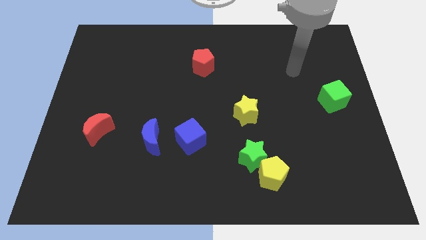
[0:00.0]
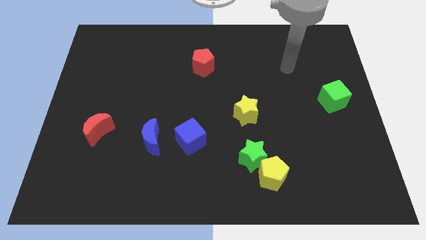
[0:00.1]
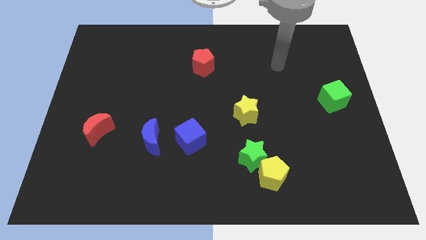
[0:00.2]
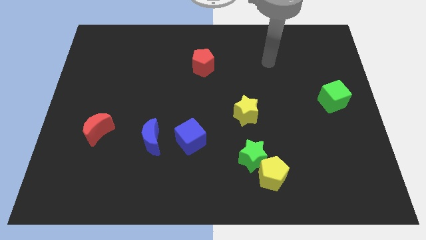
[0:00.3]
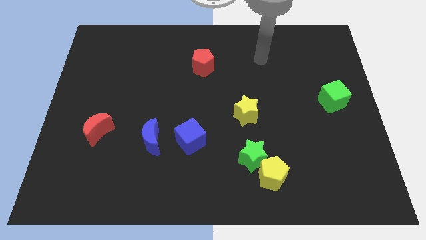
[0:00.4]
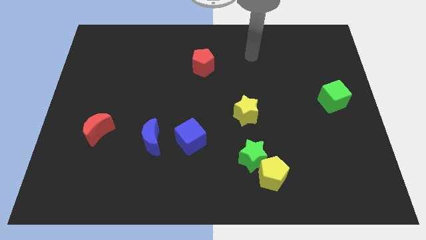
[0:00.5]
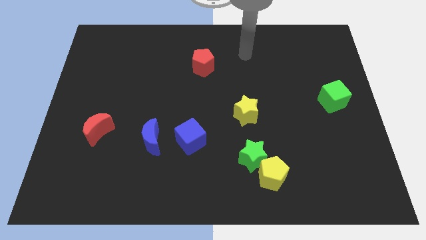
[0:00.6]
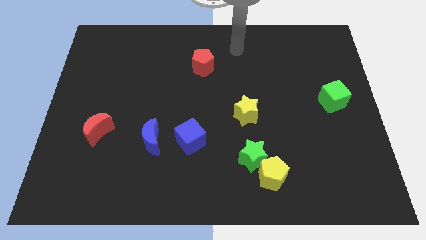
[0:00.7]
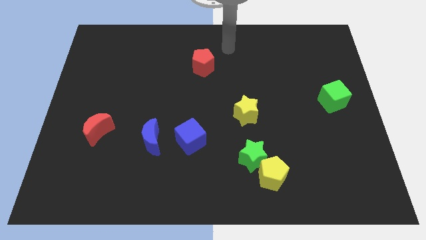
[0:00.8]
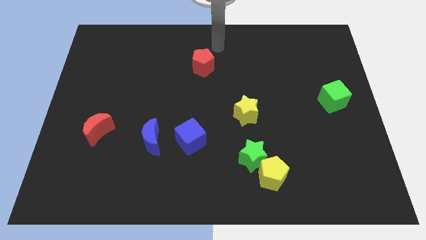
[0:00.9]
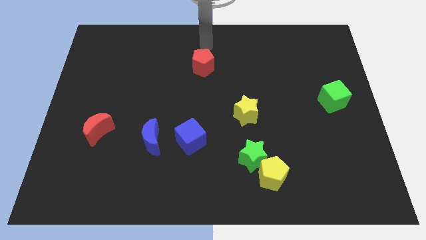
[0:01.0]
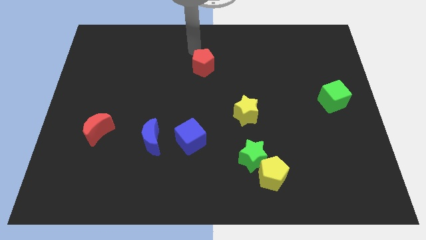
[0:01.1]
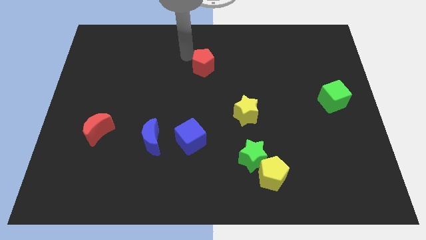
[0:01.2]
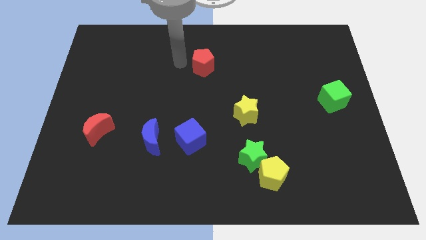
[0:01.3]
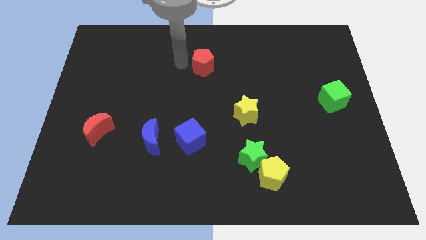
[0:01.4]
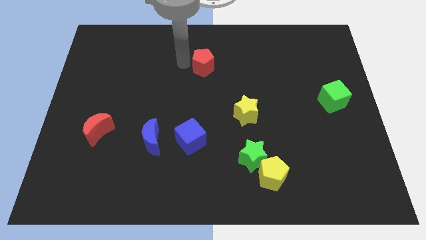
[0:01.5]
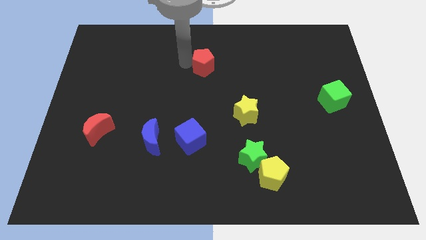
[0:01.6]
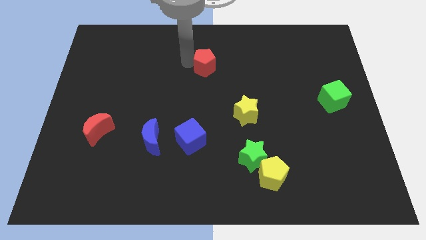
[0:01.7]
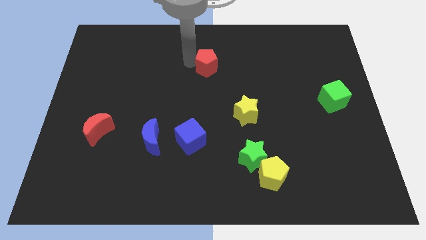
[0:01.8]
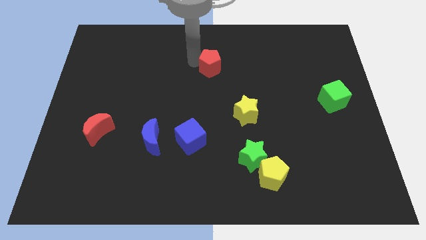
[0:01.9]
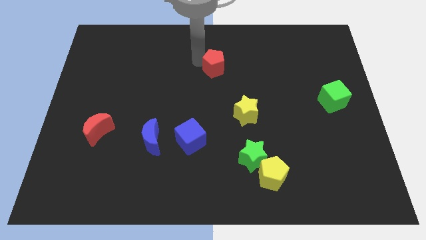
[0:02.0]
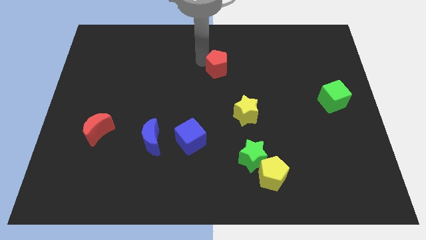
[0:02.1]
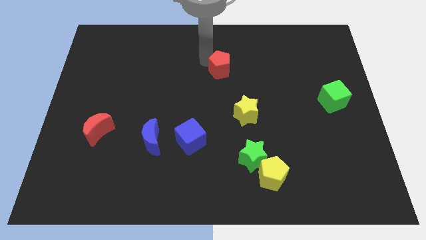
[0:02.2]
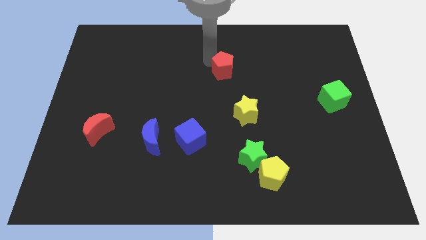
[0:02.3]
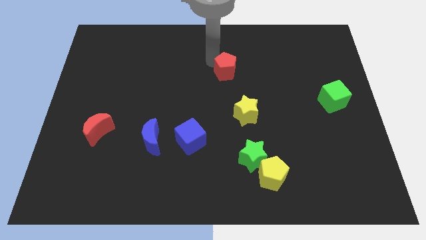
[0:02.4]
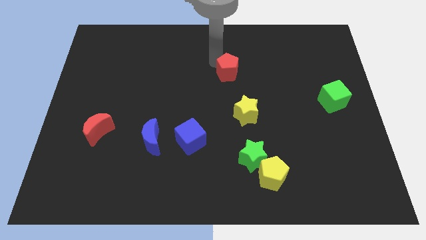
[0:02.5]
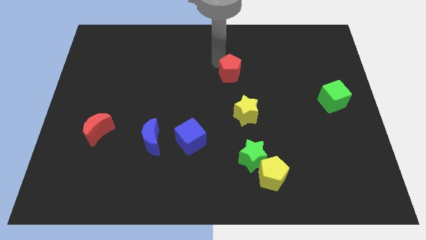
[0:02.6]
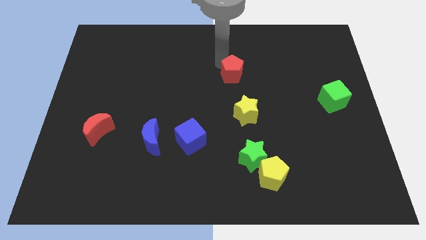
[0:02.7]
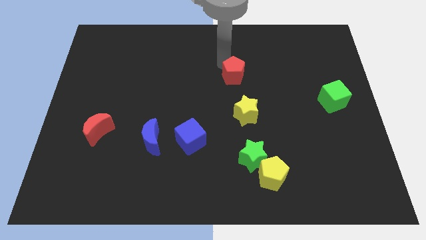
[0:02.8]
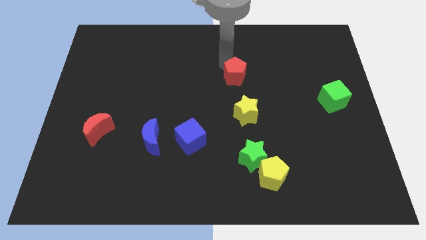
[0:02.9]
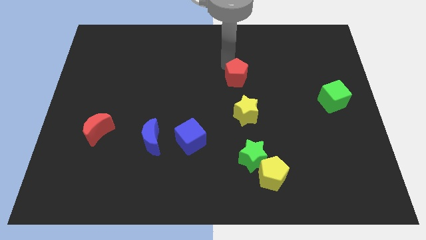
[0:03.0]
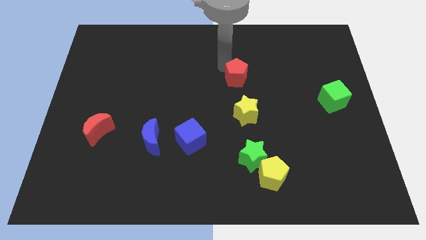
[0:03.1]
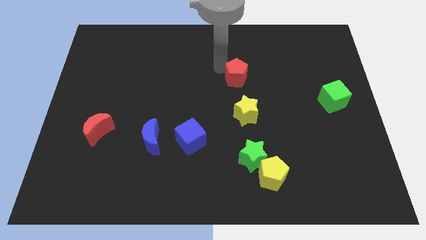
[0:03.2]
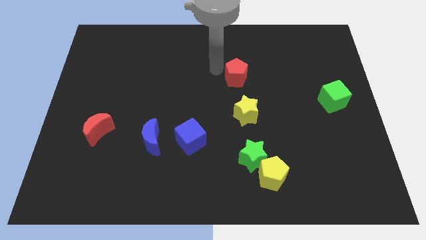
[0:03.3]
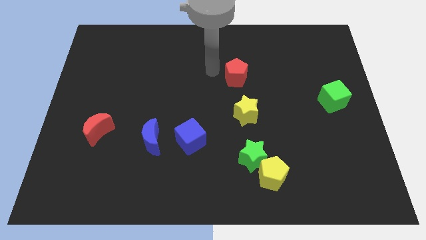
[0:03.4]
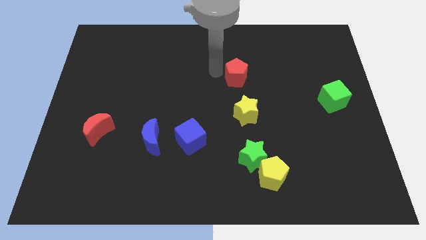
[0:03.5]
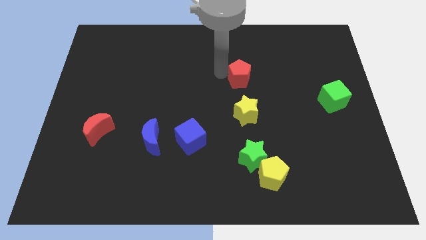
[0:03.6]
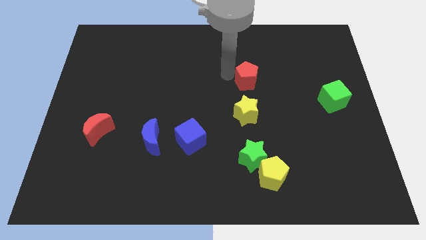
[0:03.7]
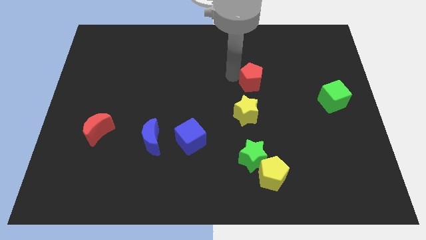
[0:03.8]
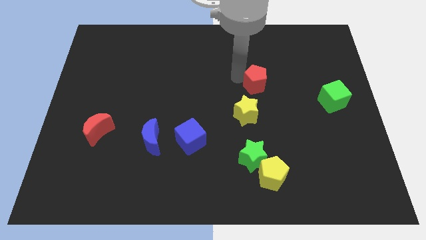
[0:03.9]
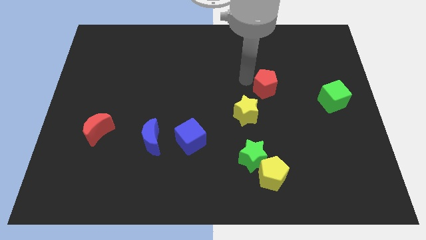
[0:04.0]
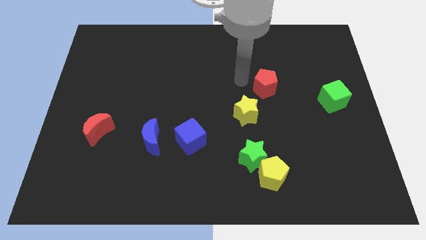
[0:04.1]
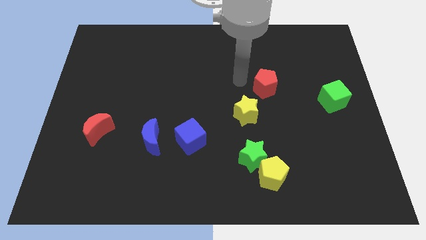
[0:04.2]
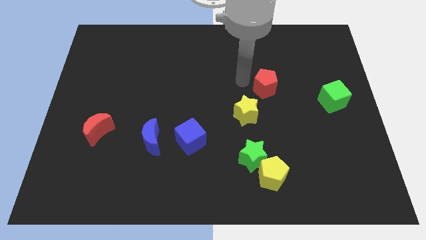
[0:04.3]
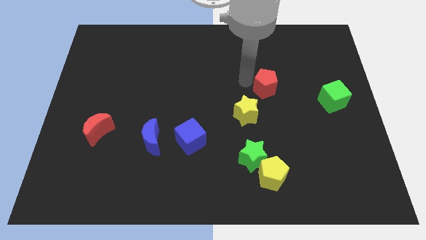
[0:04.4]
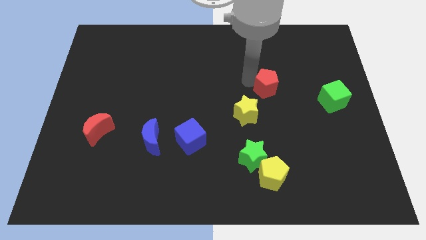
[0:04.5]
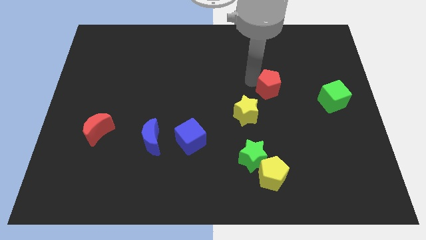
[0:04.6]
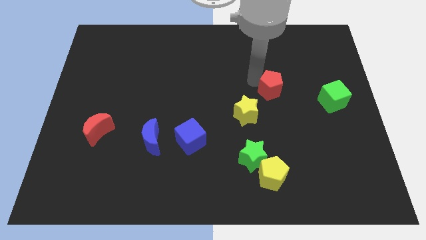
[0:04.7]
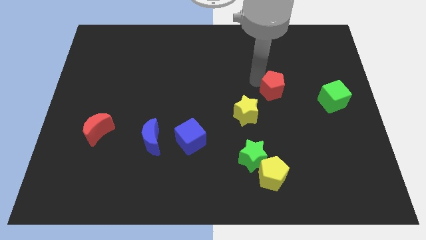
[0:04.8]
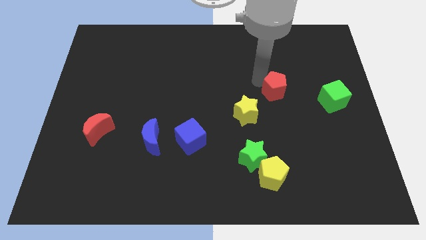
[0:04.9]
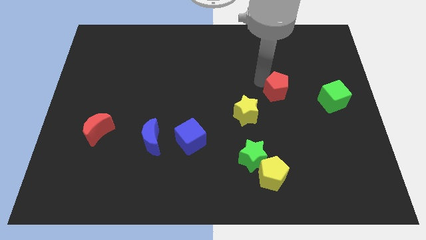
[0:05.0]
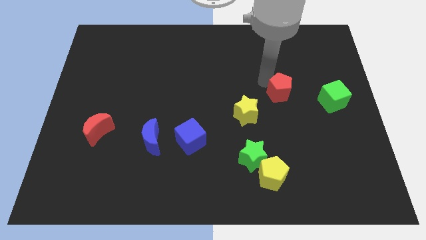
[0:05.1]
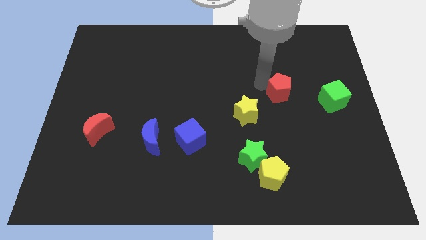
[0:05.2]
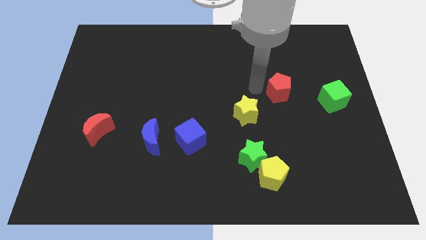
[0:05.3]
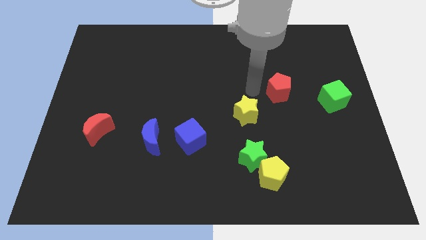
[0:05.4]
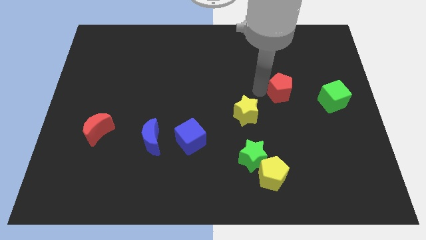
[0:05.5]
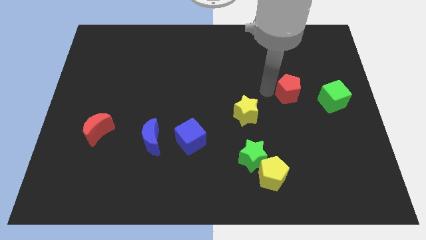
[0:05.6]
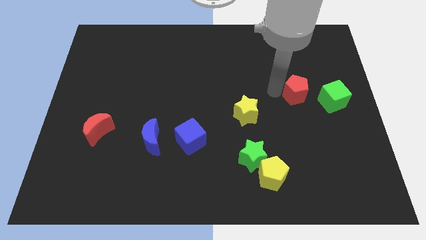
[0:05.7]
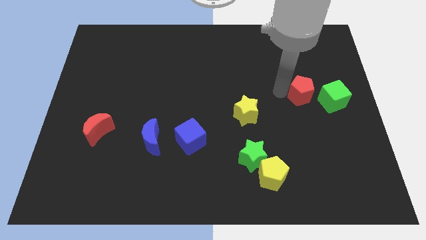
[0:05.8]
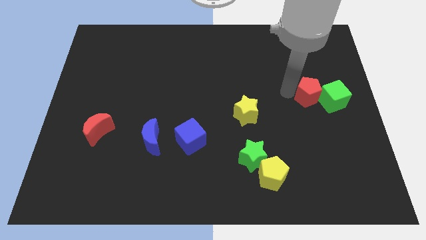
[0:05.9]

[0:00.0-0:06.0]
slide the red pentagon close to the green cube

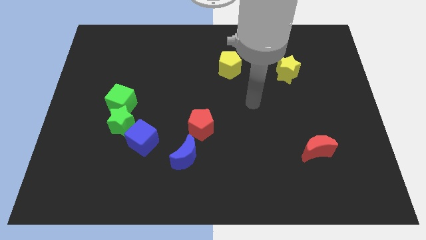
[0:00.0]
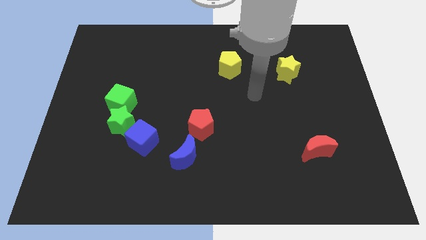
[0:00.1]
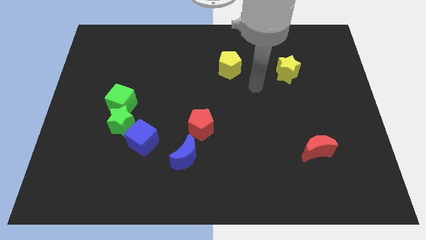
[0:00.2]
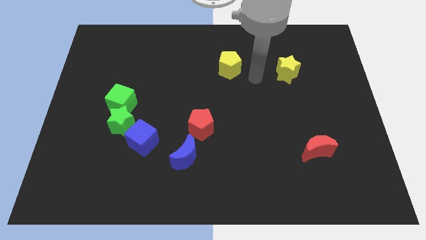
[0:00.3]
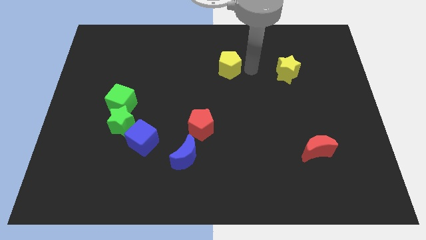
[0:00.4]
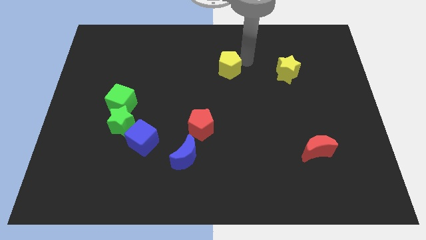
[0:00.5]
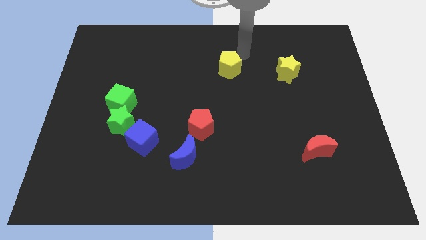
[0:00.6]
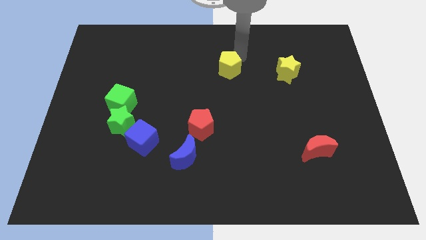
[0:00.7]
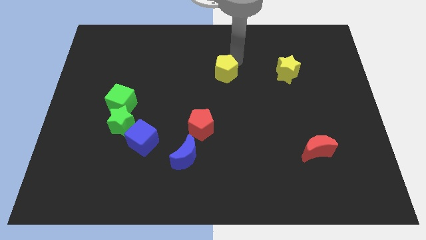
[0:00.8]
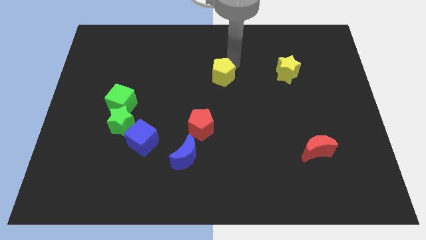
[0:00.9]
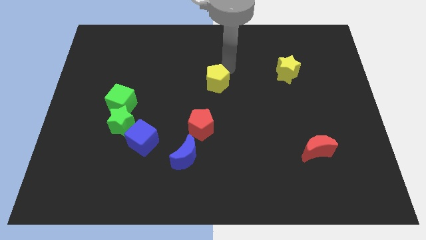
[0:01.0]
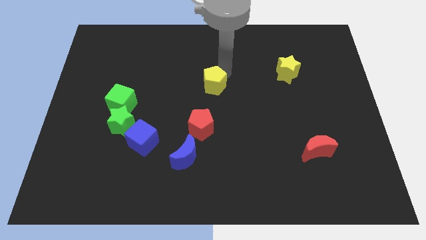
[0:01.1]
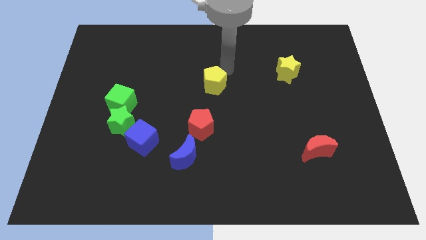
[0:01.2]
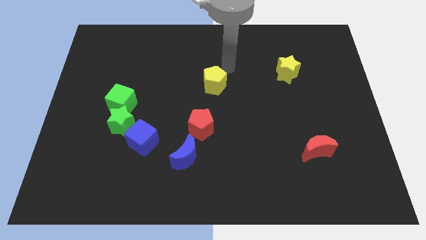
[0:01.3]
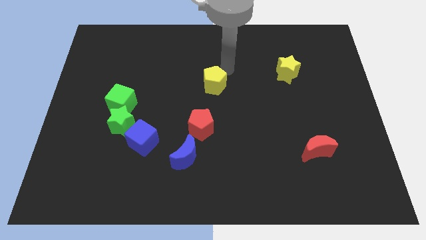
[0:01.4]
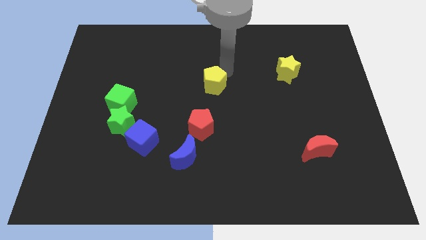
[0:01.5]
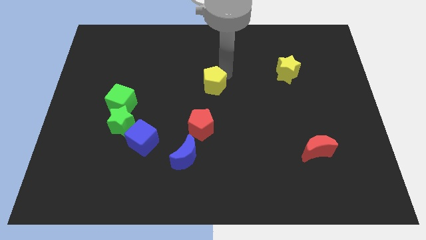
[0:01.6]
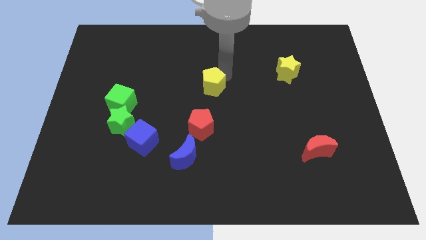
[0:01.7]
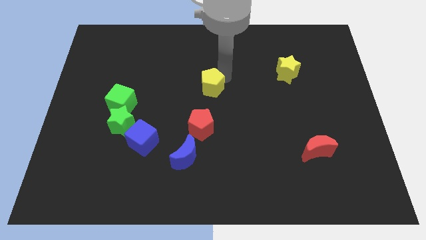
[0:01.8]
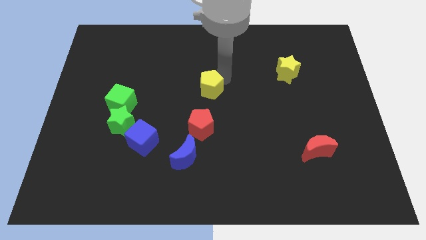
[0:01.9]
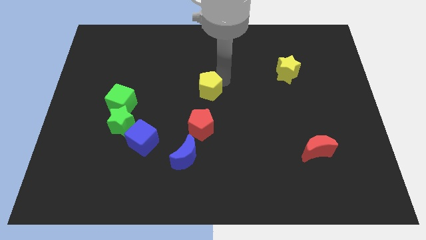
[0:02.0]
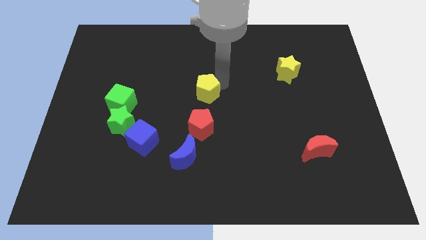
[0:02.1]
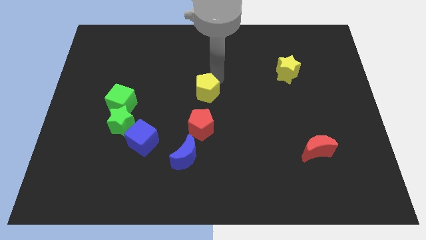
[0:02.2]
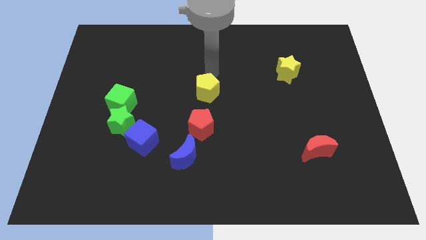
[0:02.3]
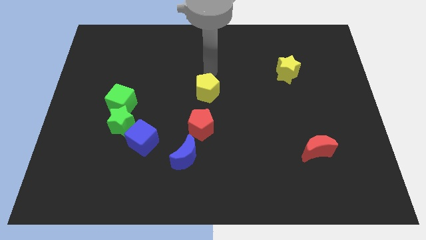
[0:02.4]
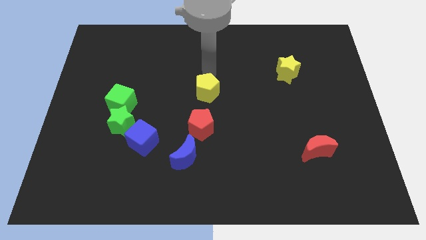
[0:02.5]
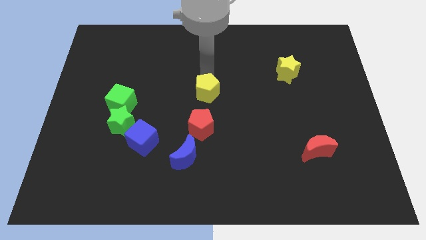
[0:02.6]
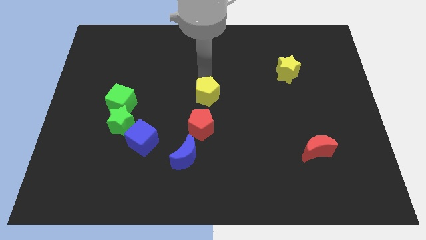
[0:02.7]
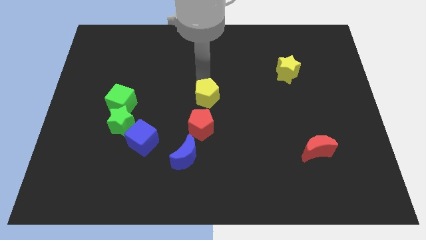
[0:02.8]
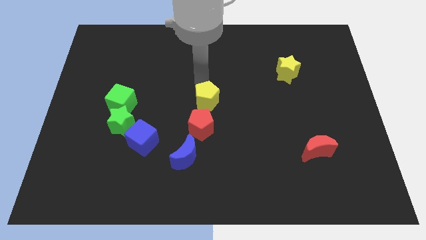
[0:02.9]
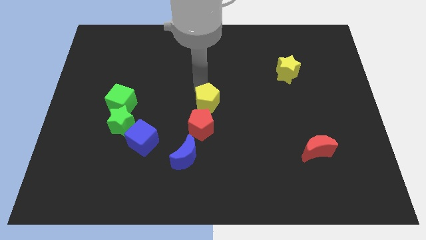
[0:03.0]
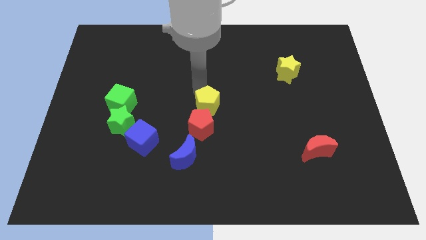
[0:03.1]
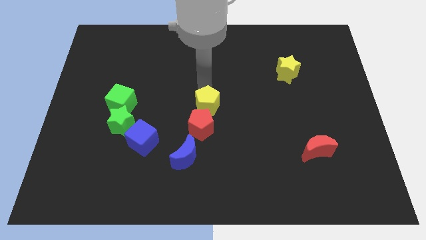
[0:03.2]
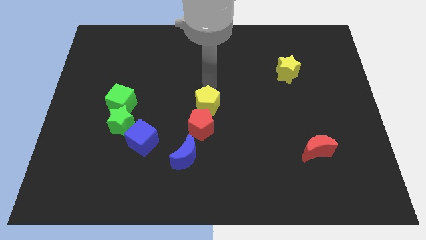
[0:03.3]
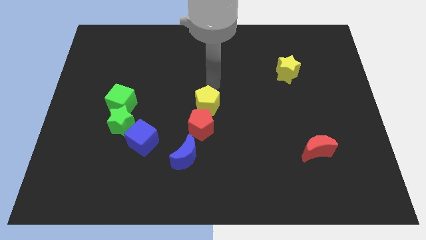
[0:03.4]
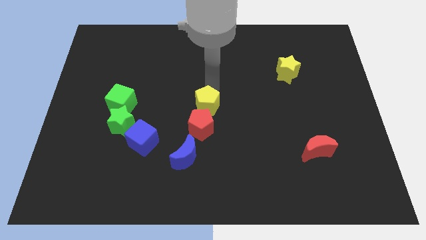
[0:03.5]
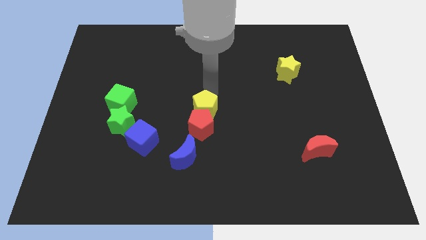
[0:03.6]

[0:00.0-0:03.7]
move the yellow pentagon next to the red pentagon
